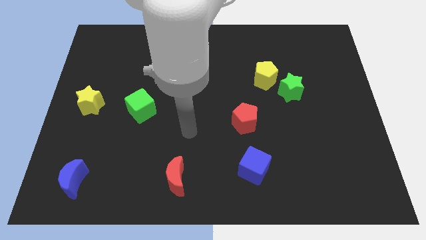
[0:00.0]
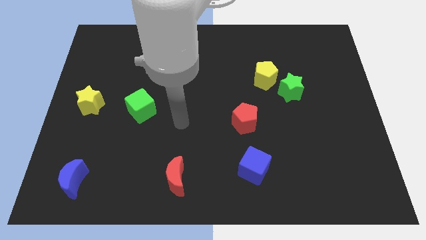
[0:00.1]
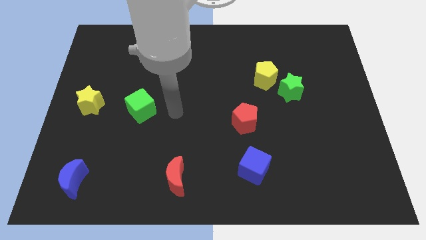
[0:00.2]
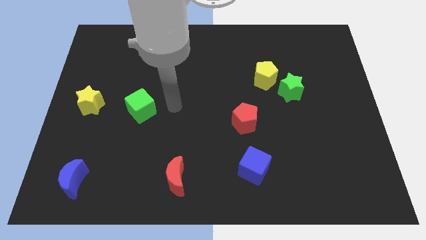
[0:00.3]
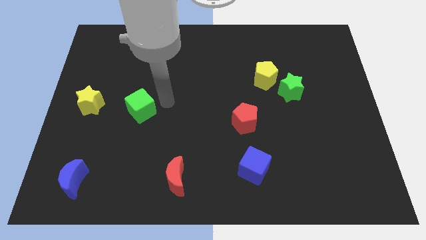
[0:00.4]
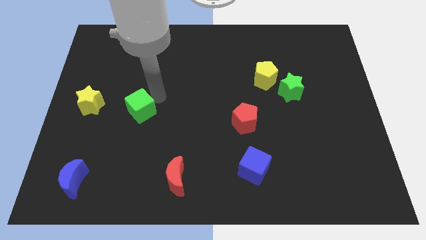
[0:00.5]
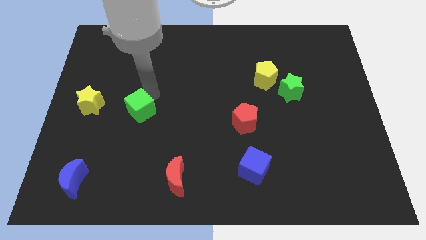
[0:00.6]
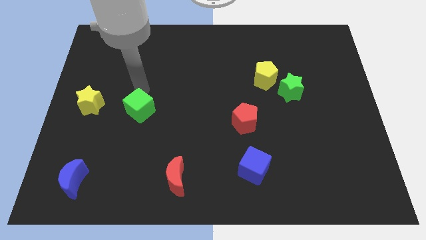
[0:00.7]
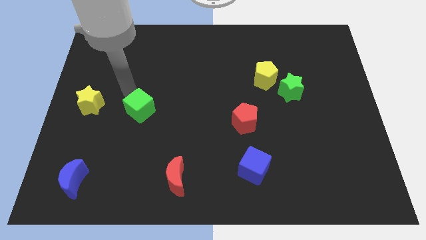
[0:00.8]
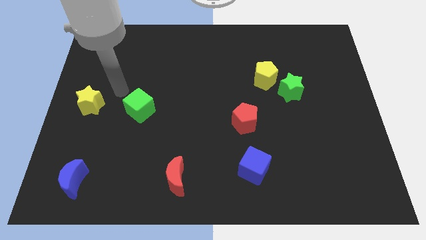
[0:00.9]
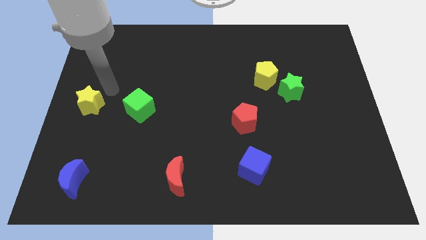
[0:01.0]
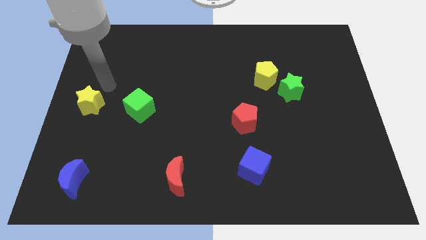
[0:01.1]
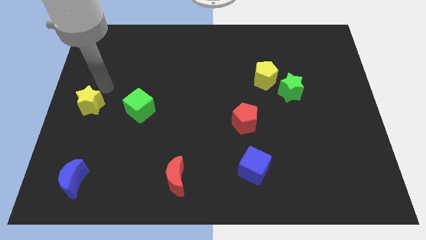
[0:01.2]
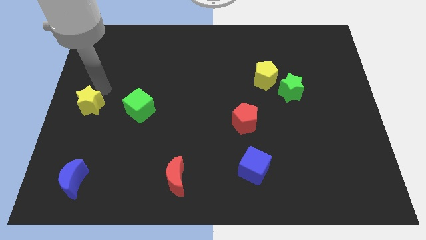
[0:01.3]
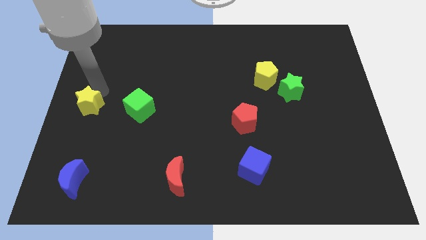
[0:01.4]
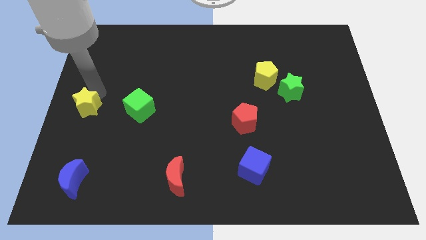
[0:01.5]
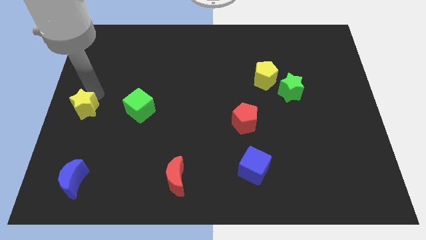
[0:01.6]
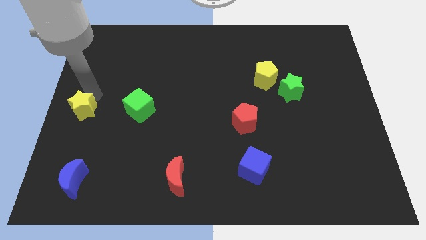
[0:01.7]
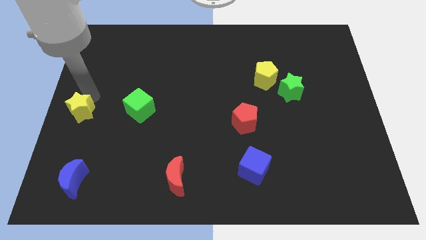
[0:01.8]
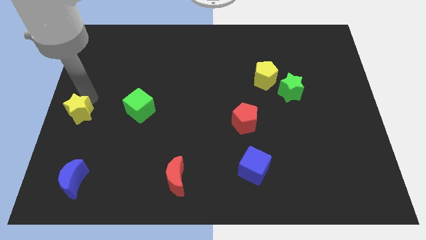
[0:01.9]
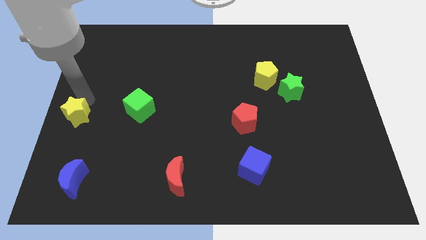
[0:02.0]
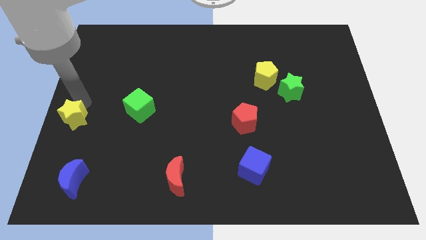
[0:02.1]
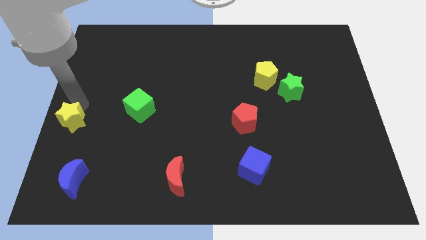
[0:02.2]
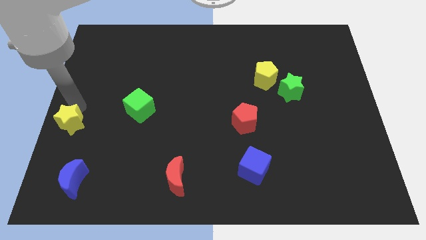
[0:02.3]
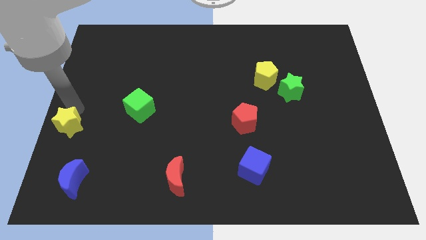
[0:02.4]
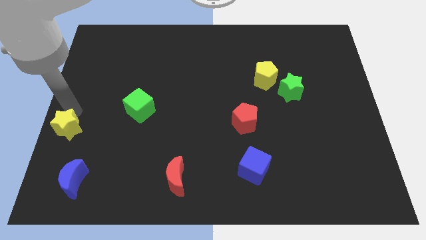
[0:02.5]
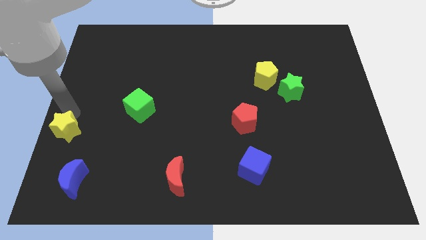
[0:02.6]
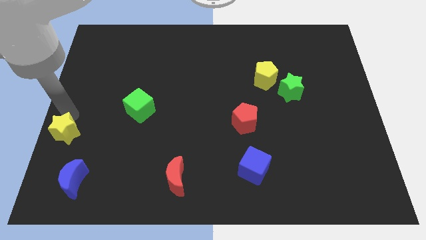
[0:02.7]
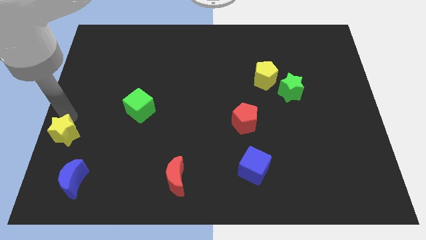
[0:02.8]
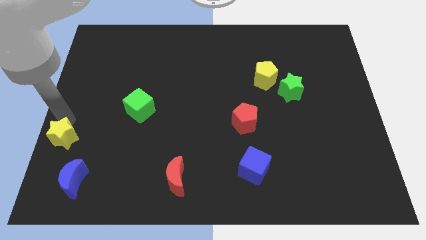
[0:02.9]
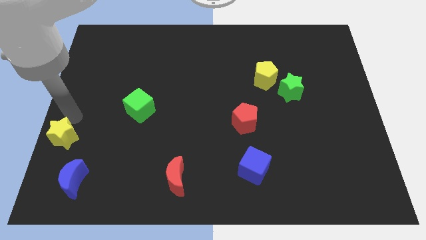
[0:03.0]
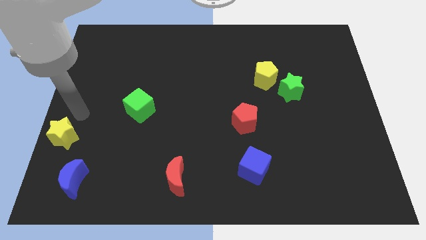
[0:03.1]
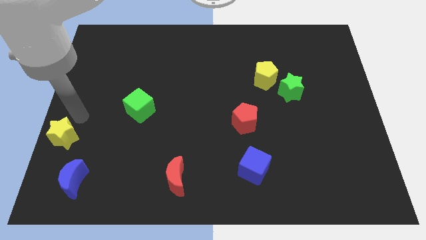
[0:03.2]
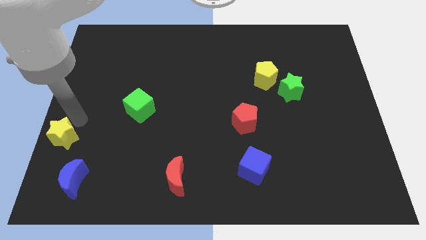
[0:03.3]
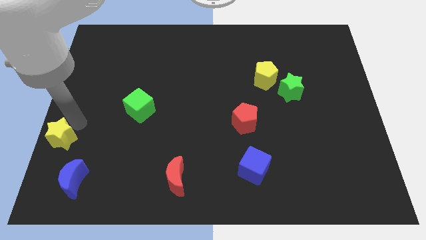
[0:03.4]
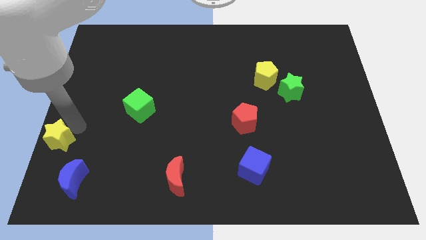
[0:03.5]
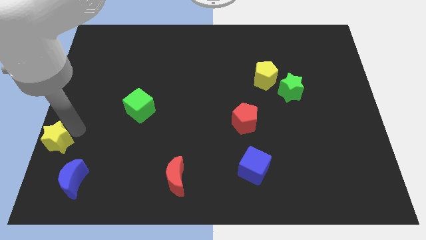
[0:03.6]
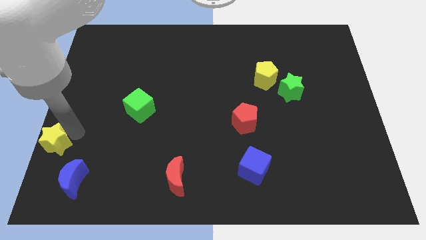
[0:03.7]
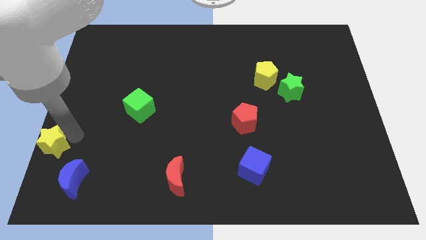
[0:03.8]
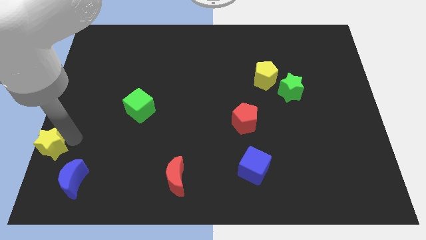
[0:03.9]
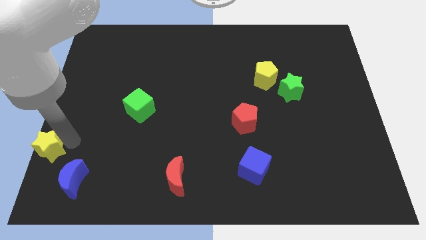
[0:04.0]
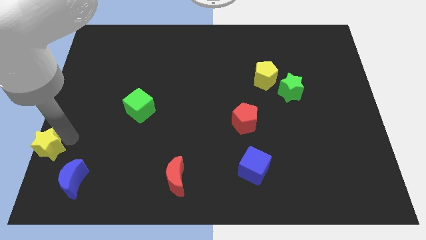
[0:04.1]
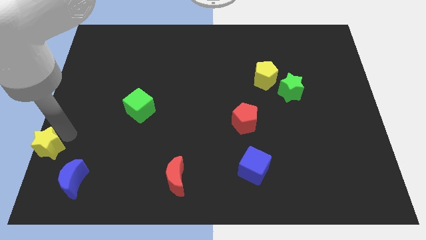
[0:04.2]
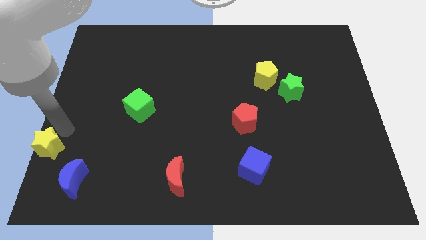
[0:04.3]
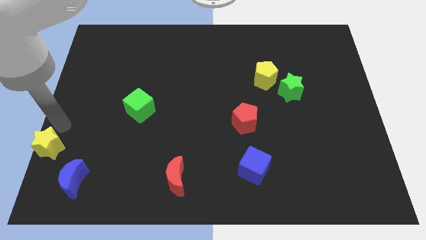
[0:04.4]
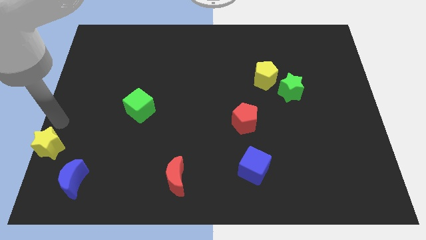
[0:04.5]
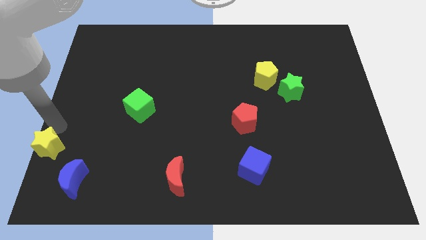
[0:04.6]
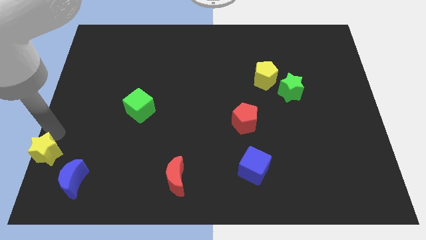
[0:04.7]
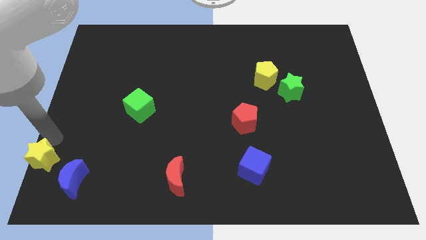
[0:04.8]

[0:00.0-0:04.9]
move the yellow star to the bottom left corner

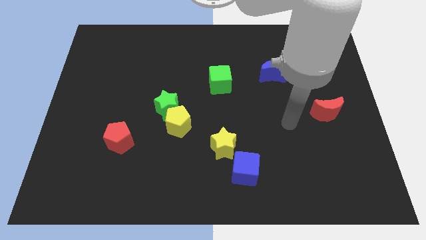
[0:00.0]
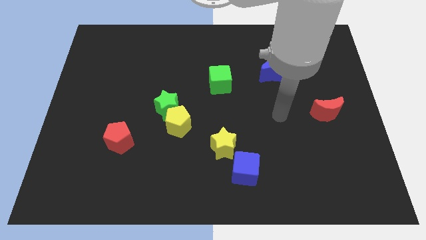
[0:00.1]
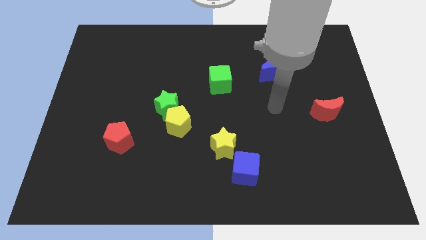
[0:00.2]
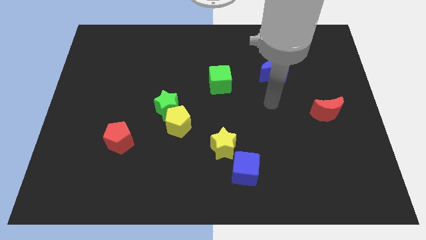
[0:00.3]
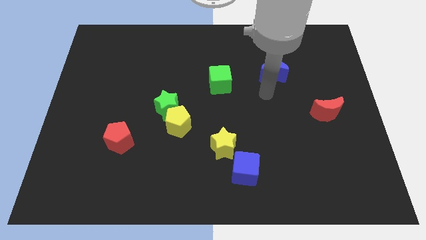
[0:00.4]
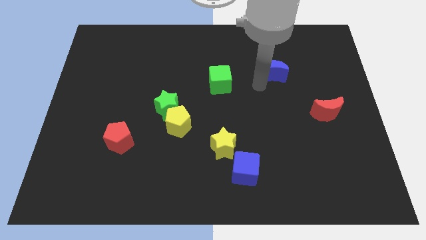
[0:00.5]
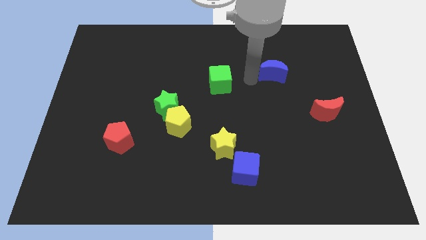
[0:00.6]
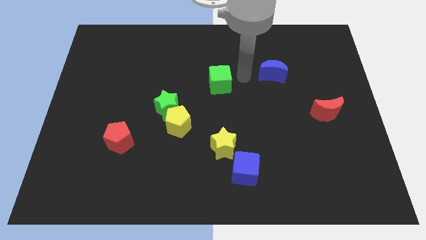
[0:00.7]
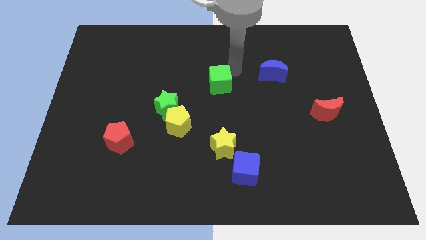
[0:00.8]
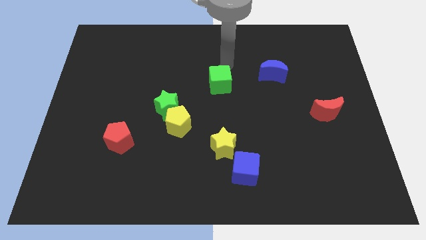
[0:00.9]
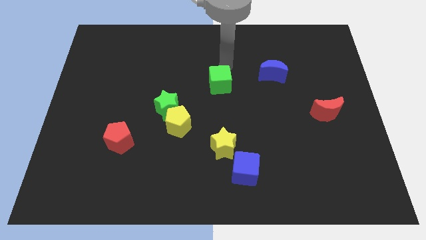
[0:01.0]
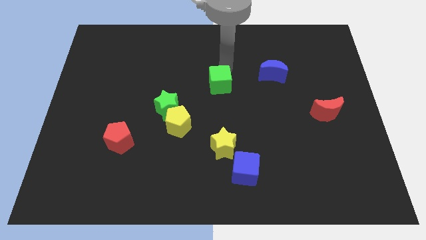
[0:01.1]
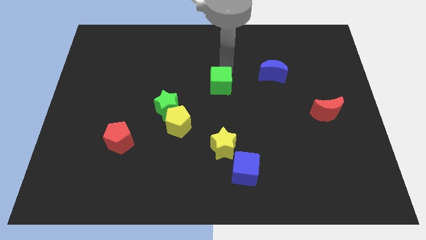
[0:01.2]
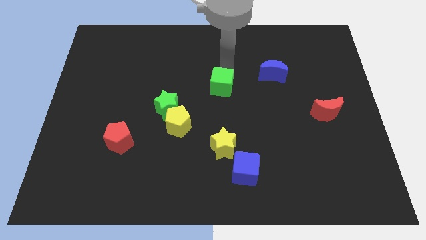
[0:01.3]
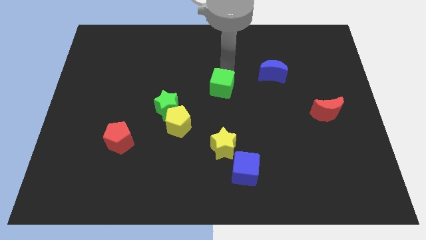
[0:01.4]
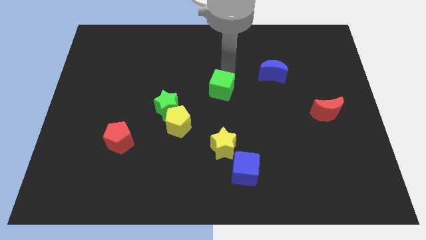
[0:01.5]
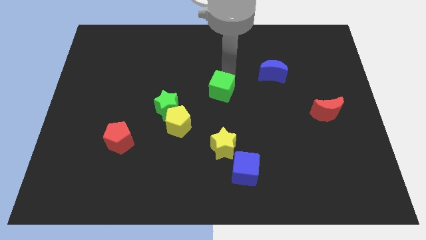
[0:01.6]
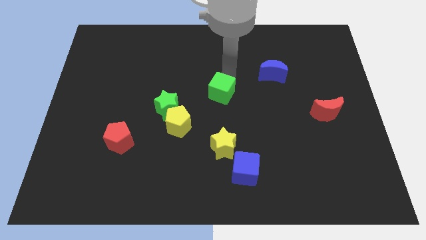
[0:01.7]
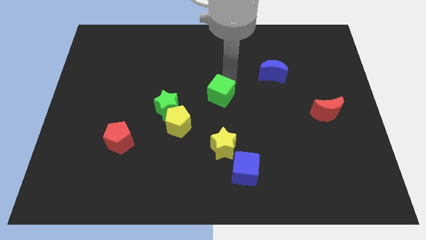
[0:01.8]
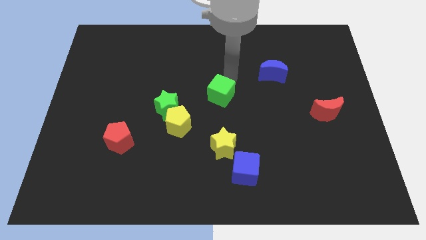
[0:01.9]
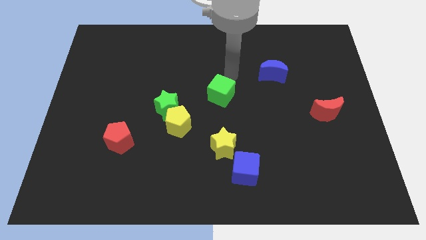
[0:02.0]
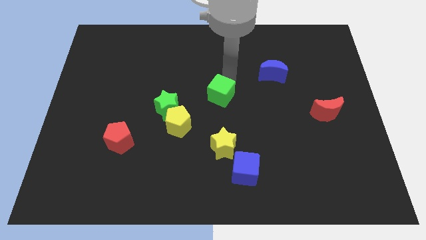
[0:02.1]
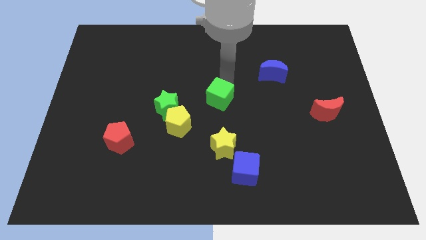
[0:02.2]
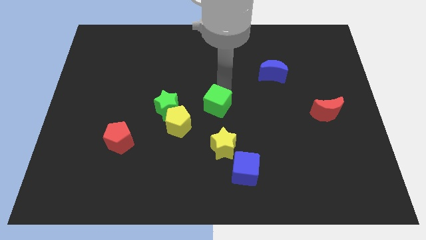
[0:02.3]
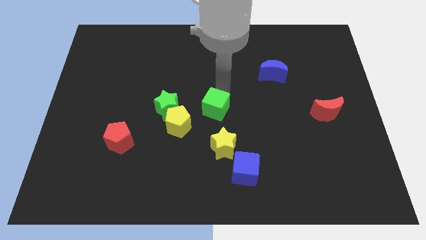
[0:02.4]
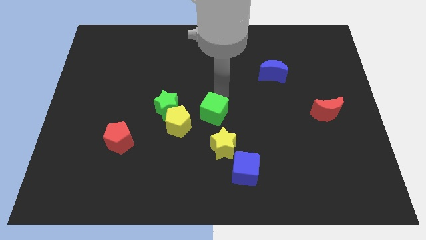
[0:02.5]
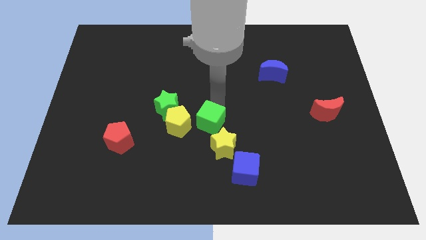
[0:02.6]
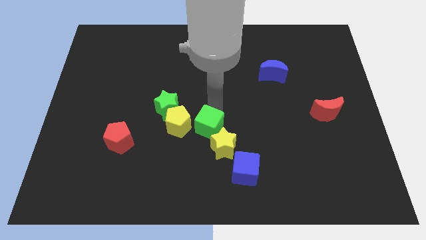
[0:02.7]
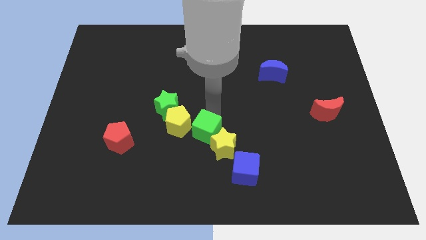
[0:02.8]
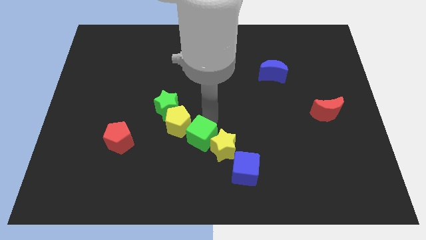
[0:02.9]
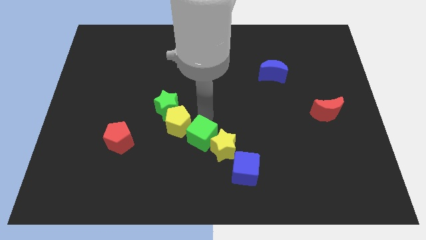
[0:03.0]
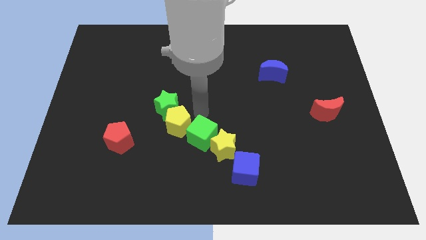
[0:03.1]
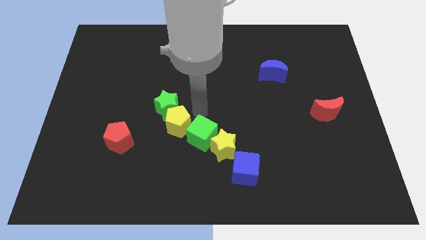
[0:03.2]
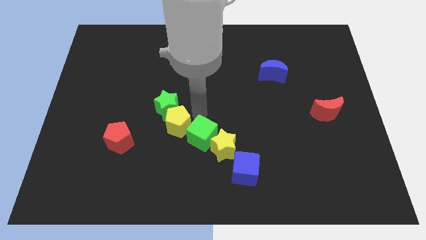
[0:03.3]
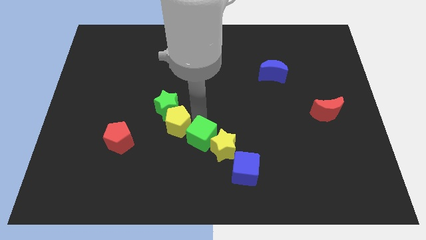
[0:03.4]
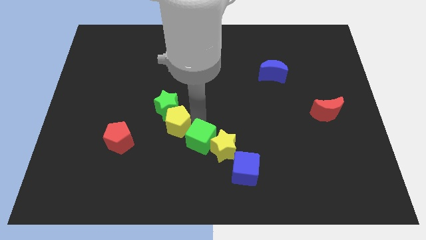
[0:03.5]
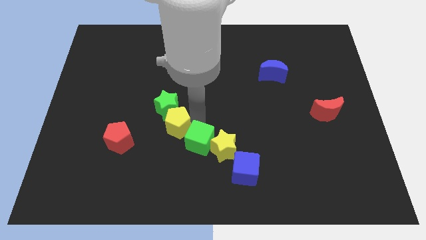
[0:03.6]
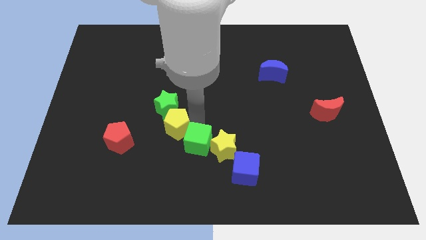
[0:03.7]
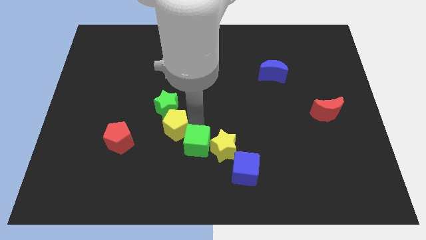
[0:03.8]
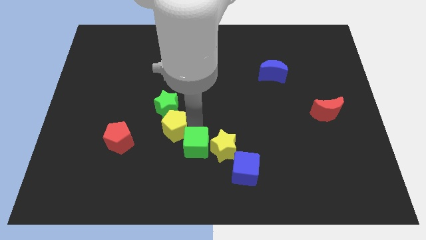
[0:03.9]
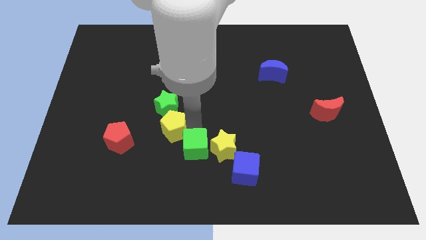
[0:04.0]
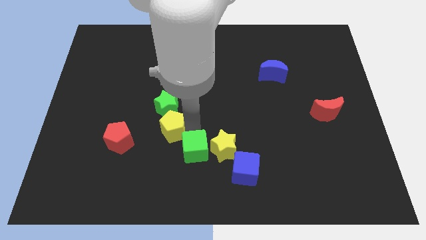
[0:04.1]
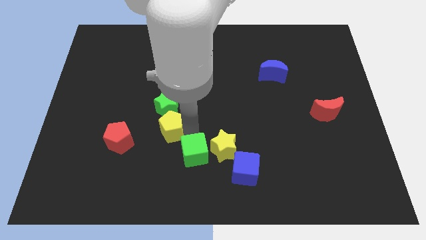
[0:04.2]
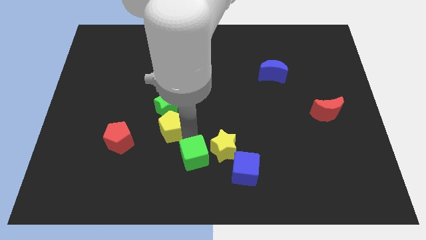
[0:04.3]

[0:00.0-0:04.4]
slide the green cube to the bottom
